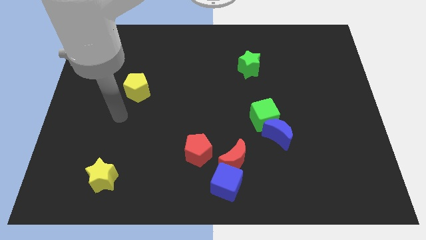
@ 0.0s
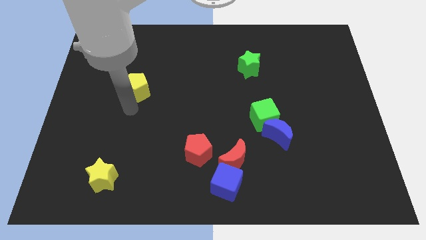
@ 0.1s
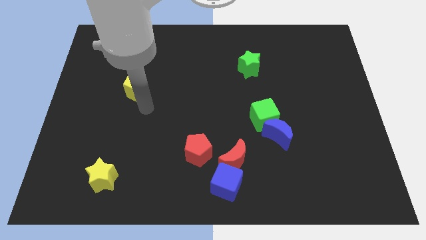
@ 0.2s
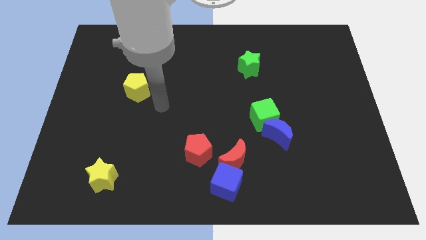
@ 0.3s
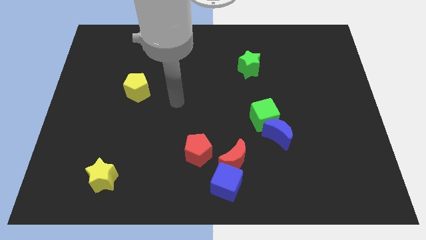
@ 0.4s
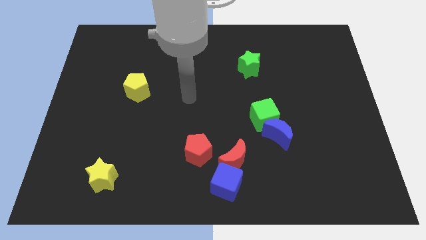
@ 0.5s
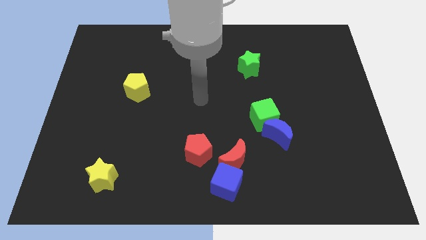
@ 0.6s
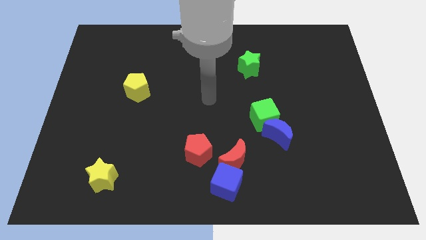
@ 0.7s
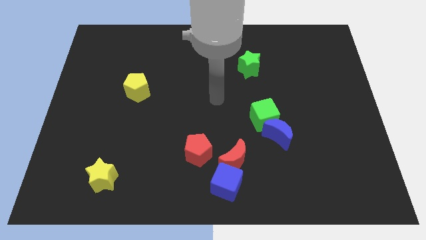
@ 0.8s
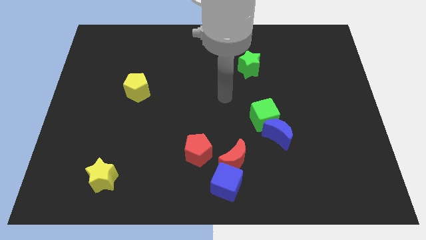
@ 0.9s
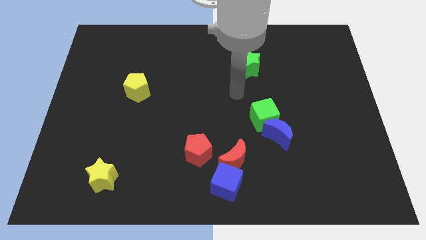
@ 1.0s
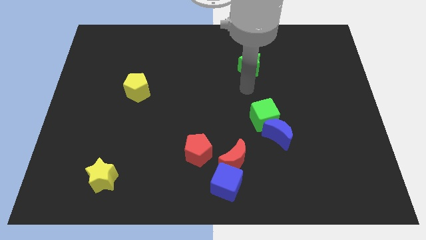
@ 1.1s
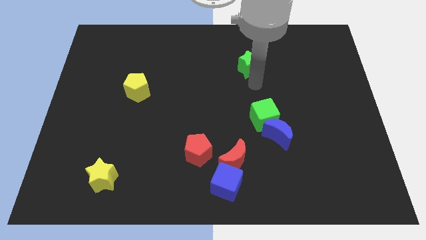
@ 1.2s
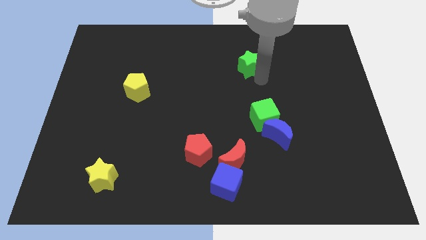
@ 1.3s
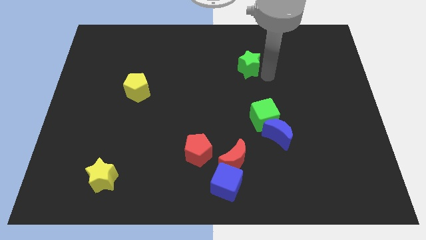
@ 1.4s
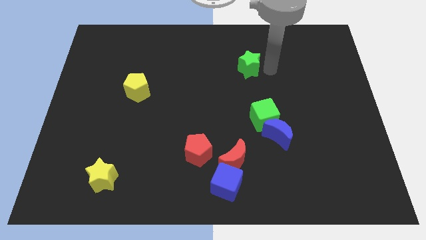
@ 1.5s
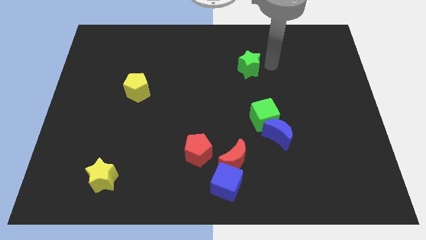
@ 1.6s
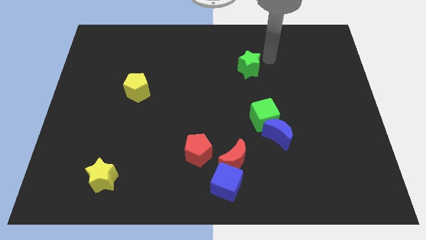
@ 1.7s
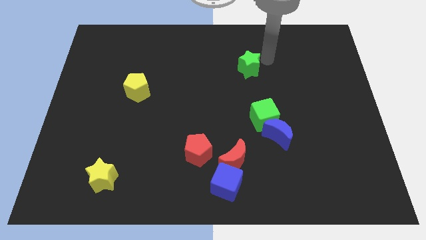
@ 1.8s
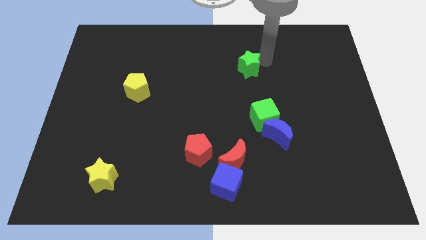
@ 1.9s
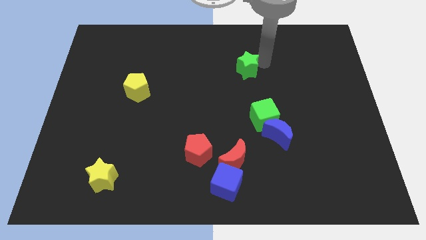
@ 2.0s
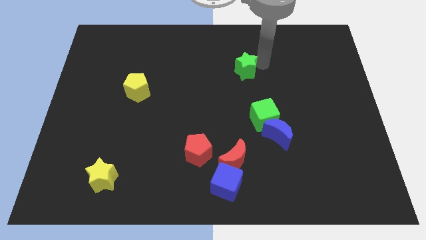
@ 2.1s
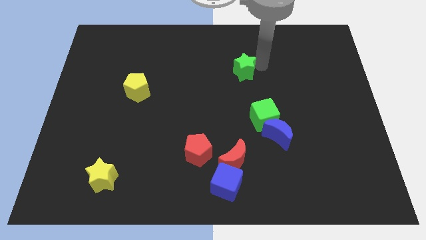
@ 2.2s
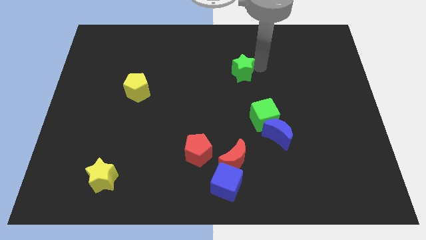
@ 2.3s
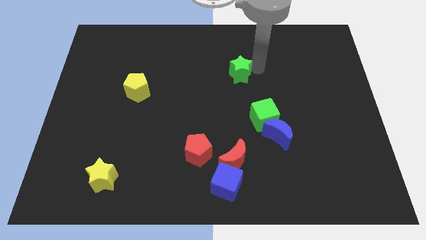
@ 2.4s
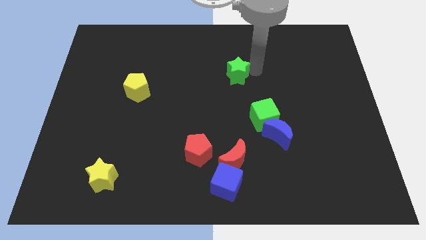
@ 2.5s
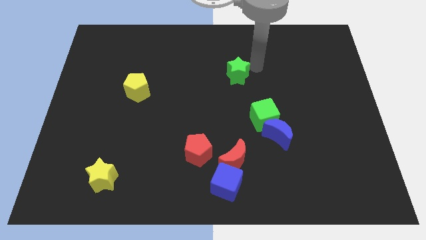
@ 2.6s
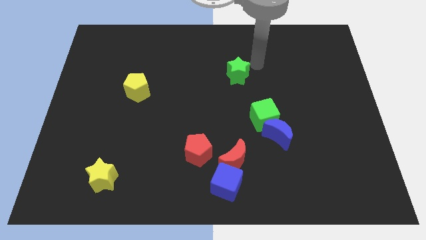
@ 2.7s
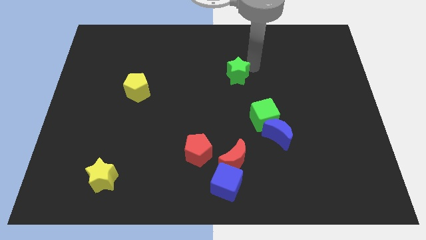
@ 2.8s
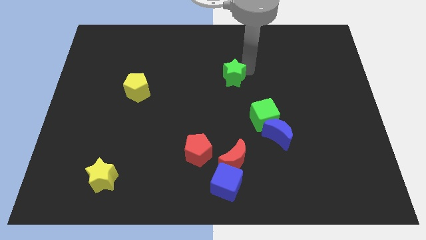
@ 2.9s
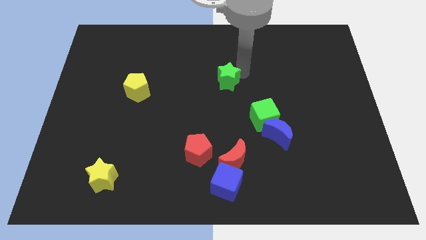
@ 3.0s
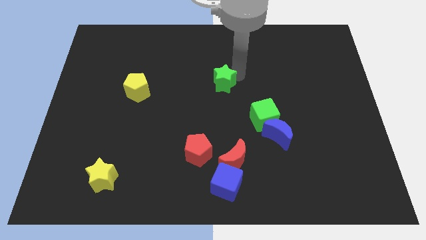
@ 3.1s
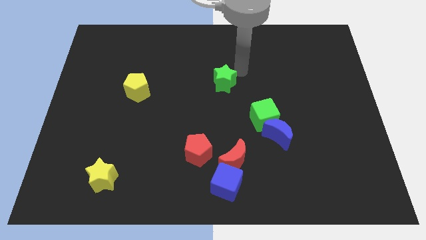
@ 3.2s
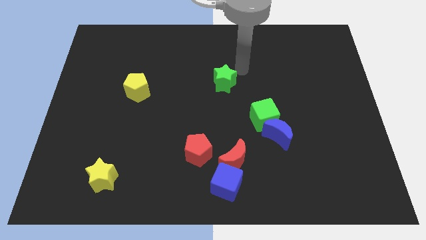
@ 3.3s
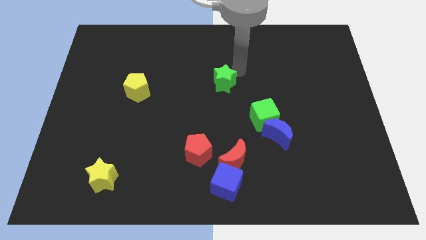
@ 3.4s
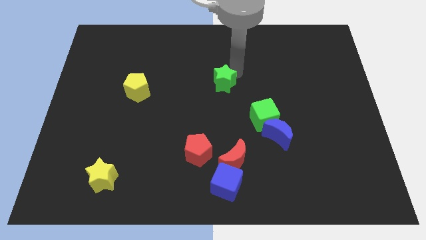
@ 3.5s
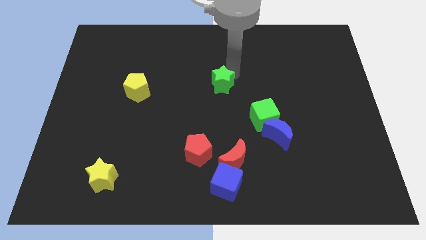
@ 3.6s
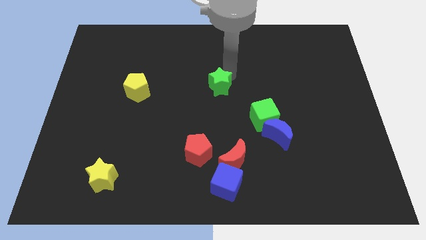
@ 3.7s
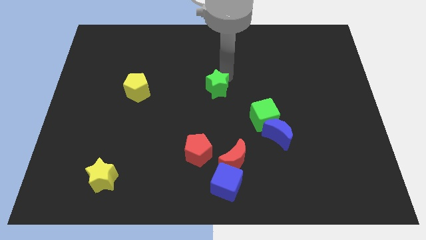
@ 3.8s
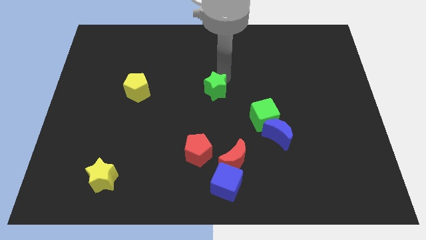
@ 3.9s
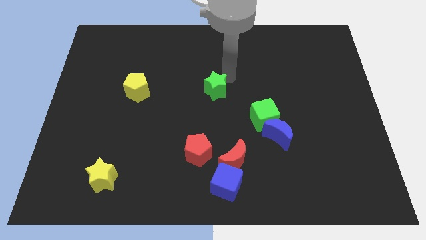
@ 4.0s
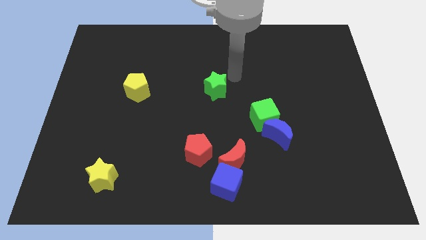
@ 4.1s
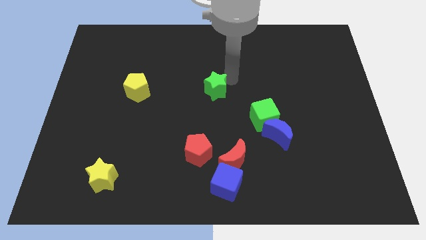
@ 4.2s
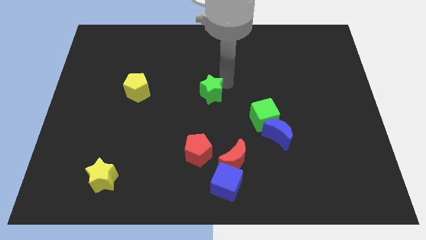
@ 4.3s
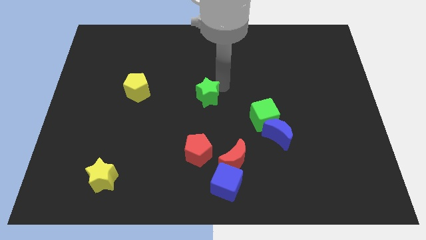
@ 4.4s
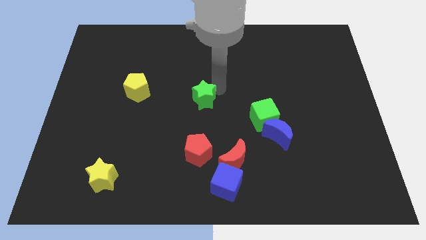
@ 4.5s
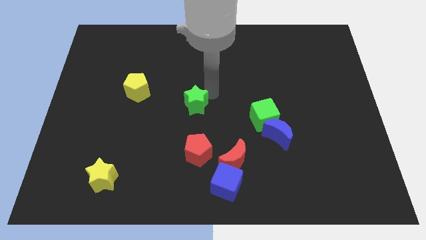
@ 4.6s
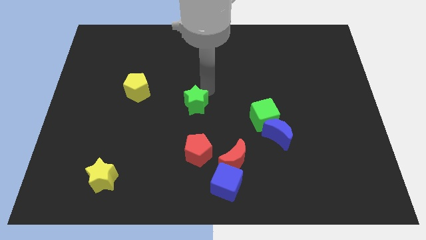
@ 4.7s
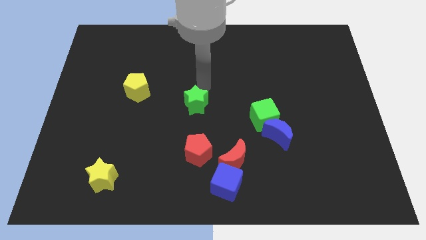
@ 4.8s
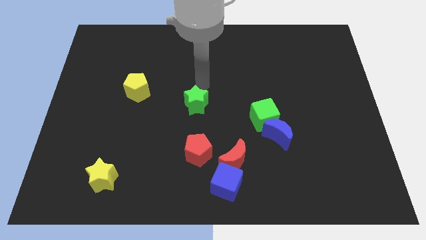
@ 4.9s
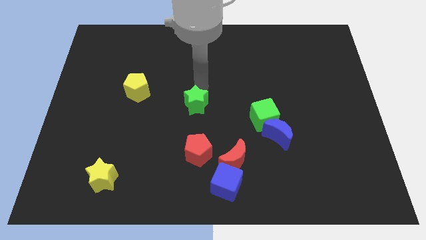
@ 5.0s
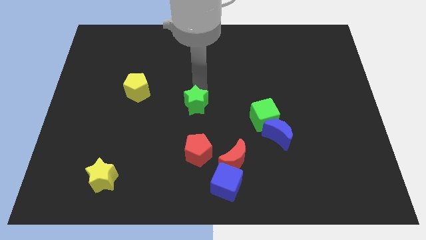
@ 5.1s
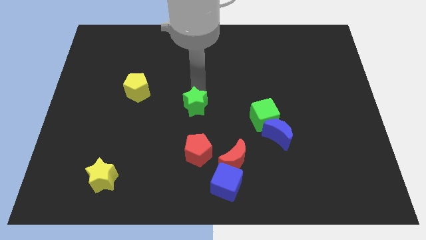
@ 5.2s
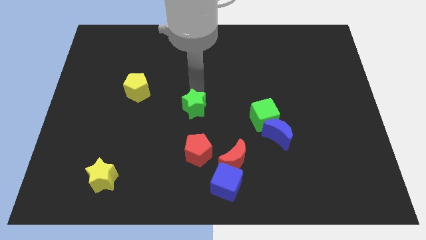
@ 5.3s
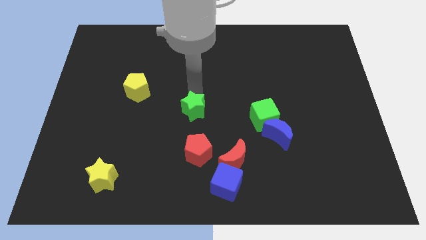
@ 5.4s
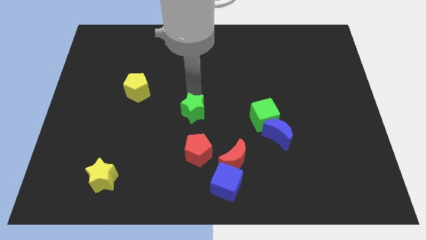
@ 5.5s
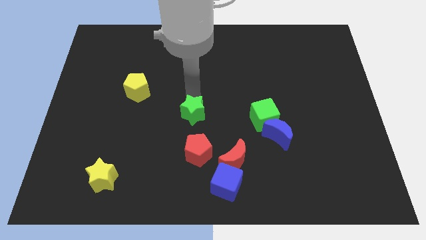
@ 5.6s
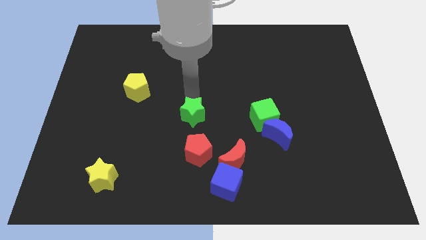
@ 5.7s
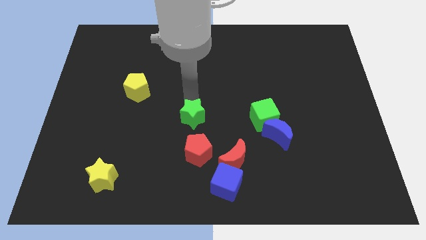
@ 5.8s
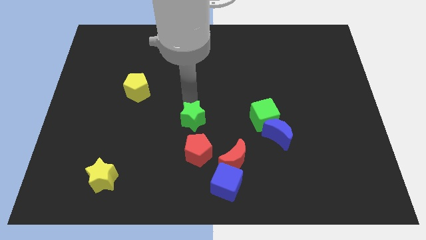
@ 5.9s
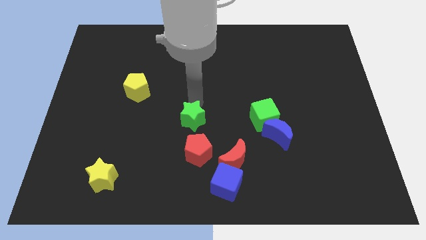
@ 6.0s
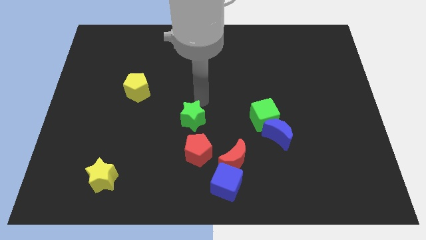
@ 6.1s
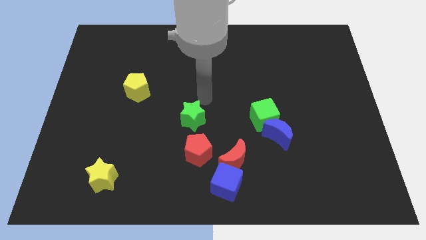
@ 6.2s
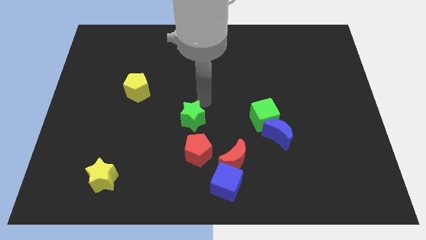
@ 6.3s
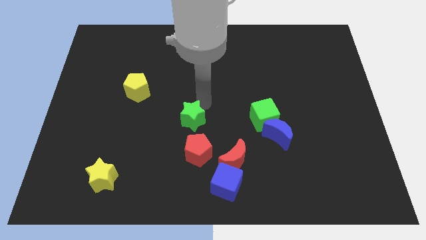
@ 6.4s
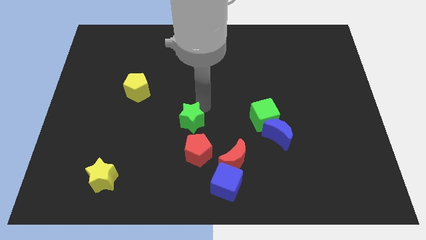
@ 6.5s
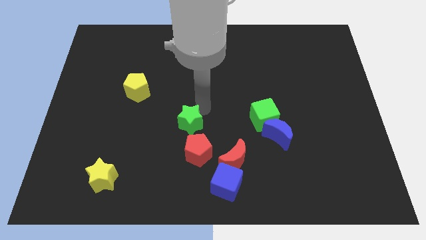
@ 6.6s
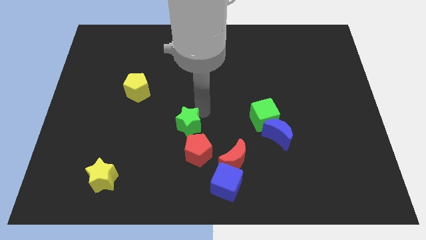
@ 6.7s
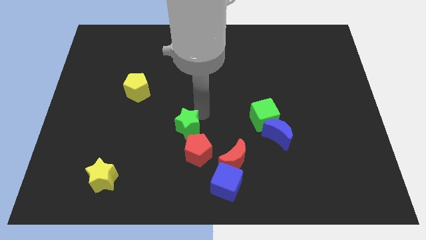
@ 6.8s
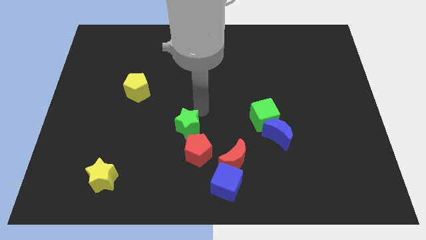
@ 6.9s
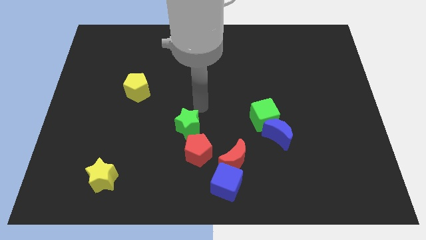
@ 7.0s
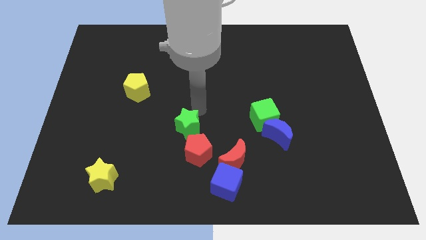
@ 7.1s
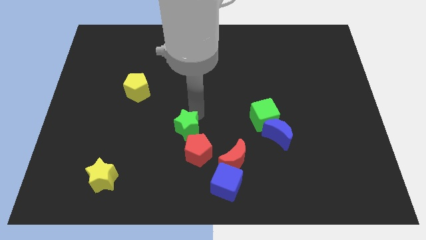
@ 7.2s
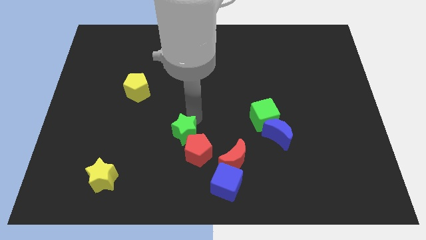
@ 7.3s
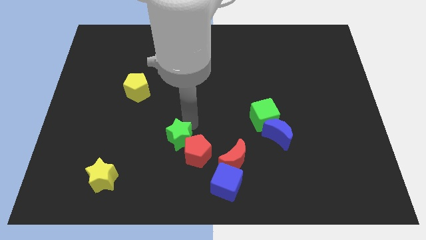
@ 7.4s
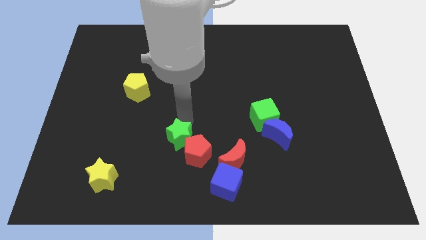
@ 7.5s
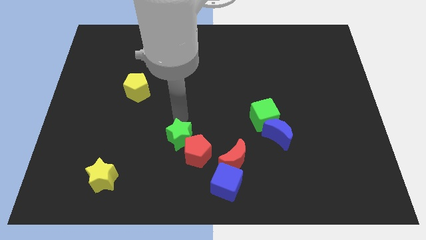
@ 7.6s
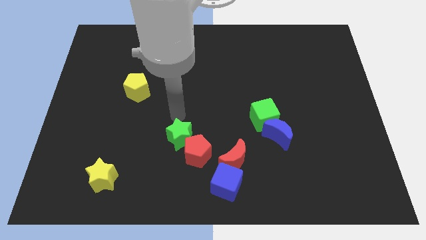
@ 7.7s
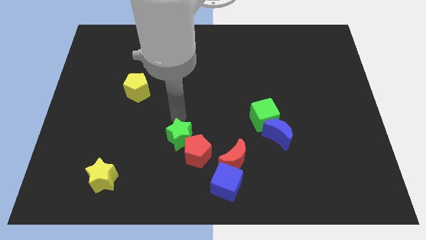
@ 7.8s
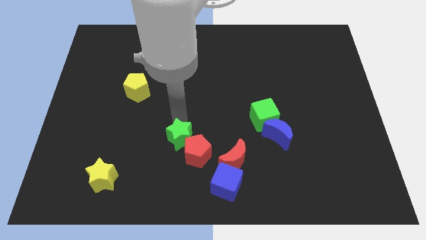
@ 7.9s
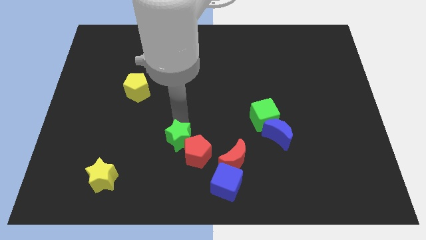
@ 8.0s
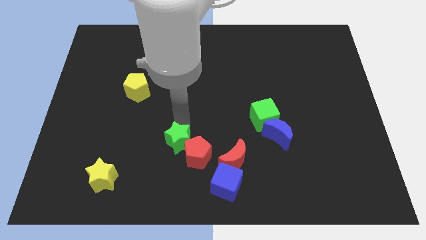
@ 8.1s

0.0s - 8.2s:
put the green star to the left side of the red moon
